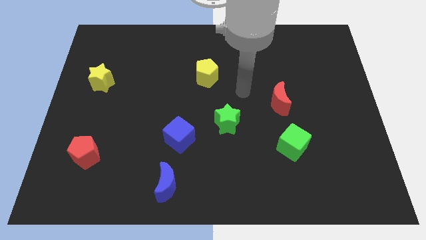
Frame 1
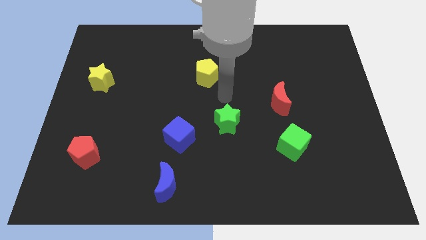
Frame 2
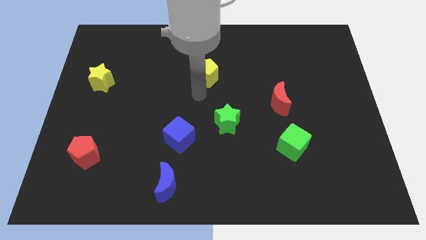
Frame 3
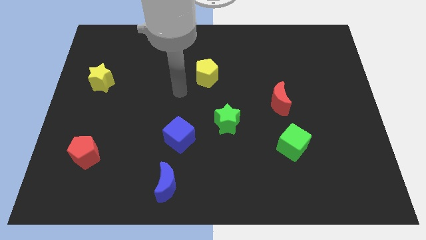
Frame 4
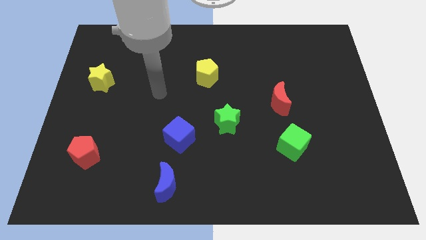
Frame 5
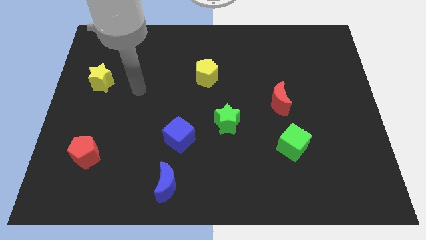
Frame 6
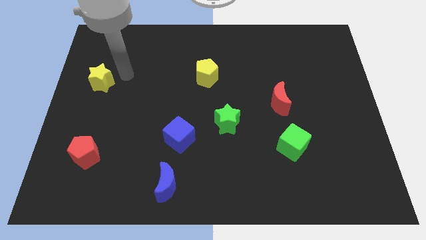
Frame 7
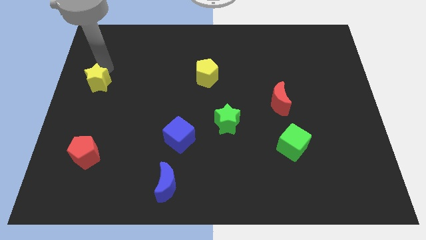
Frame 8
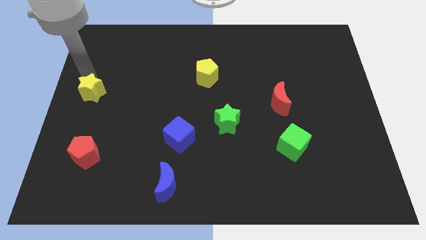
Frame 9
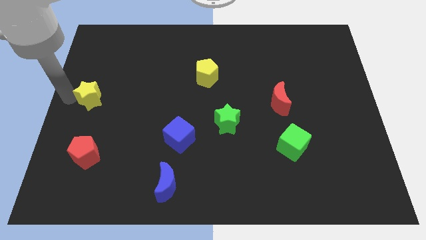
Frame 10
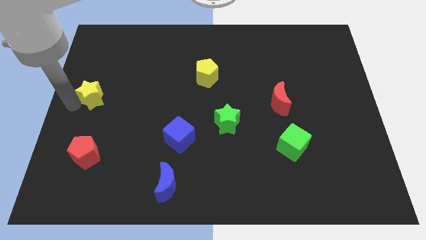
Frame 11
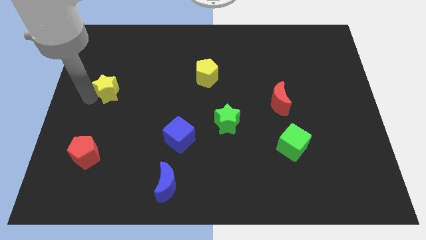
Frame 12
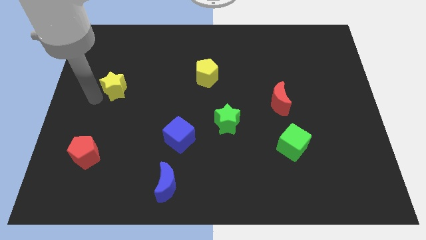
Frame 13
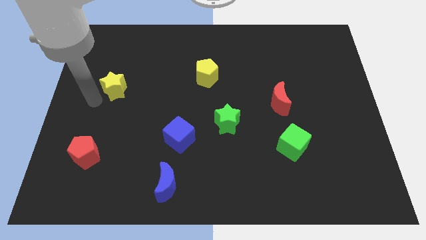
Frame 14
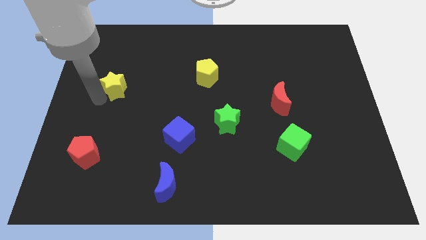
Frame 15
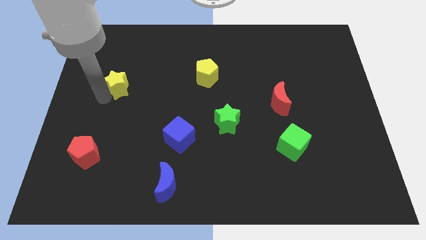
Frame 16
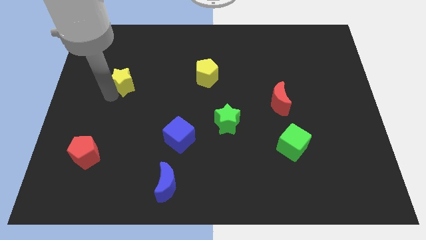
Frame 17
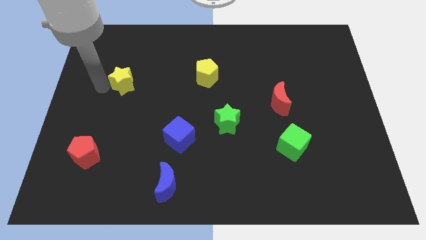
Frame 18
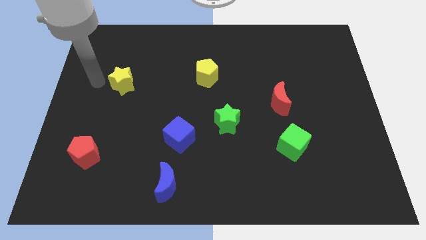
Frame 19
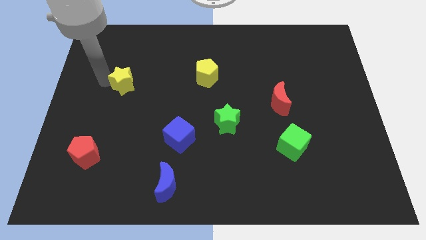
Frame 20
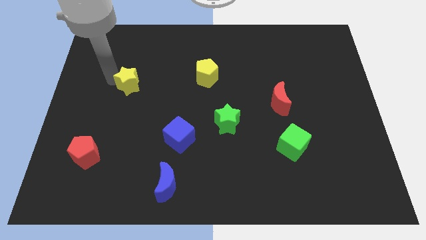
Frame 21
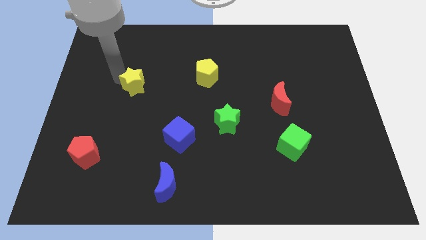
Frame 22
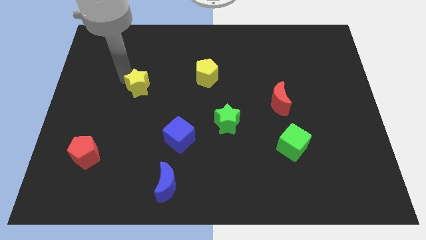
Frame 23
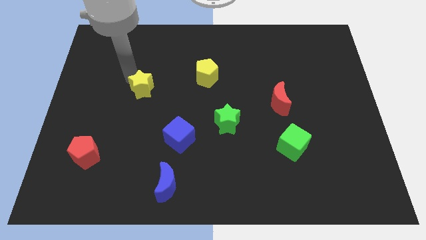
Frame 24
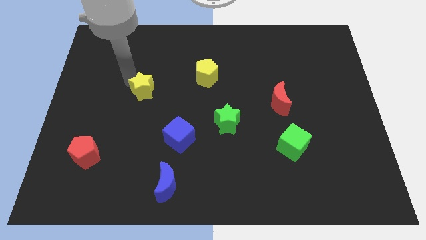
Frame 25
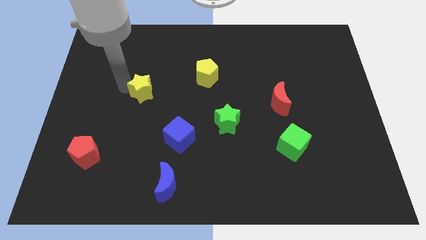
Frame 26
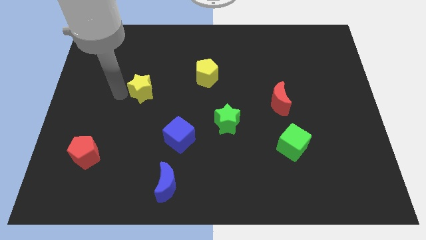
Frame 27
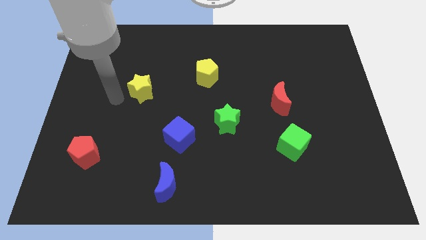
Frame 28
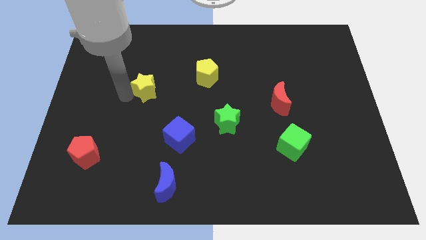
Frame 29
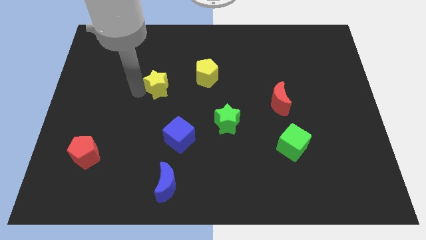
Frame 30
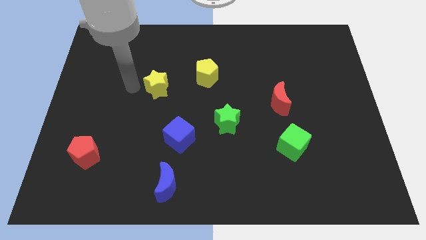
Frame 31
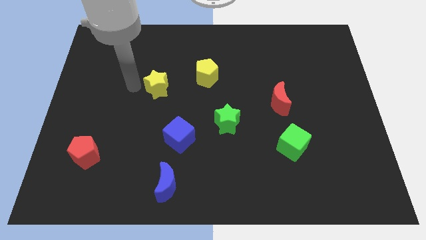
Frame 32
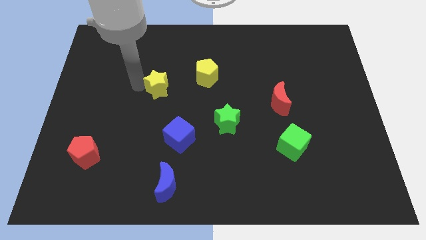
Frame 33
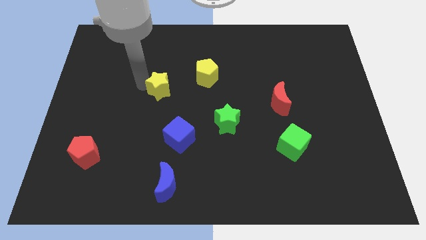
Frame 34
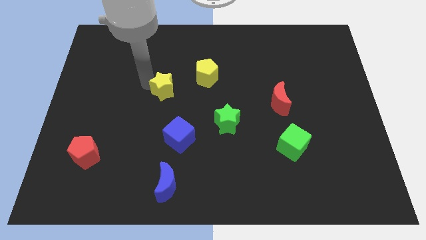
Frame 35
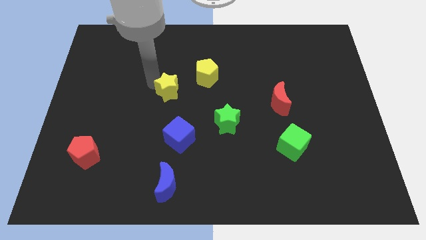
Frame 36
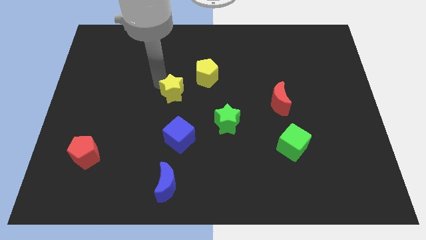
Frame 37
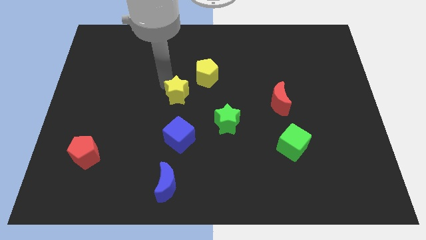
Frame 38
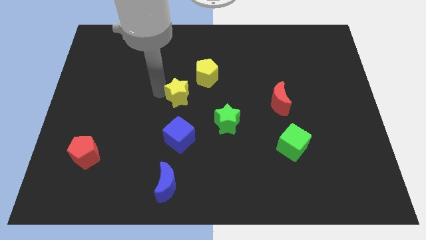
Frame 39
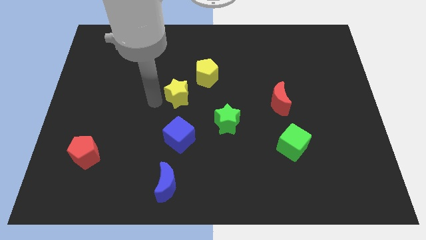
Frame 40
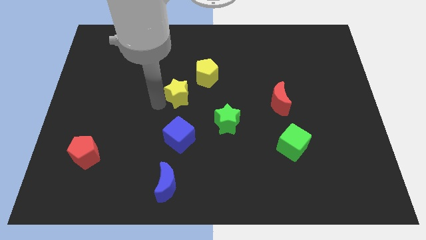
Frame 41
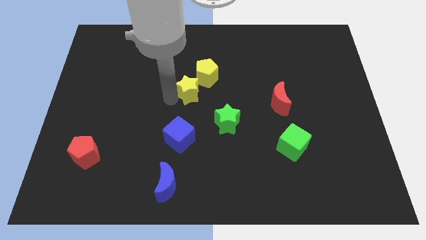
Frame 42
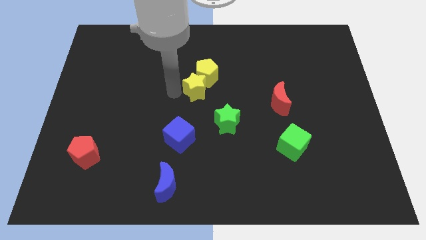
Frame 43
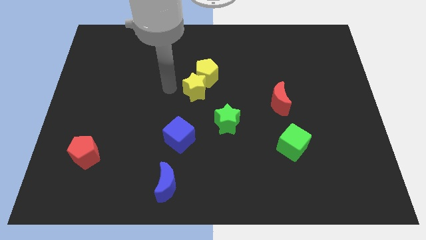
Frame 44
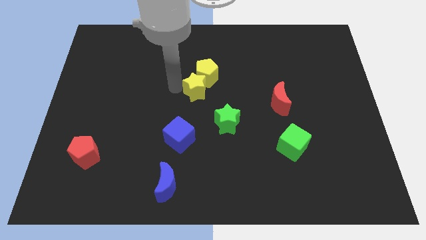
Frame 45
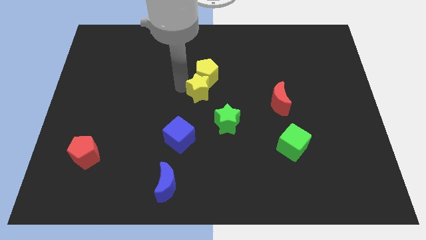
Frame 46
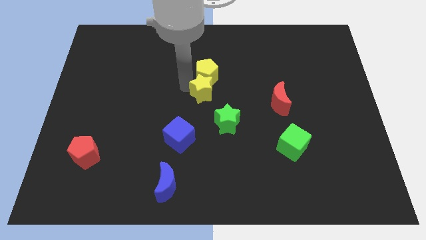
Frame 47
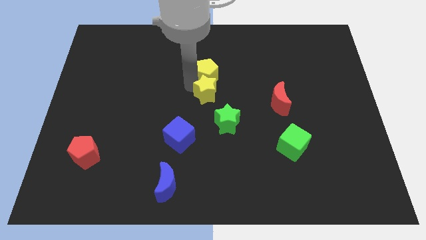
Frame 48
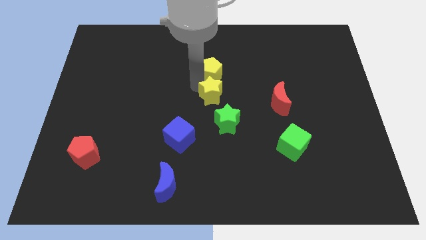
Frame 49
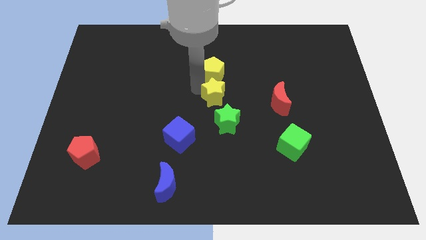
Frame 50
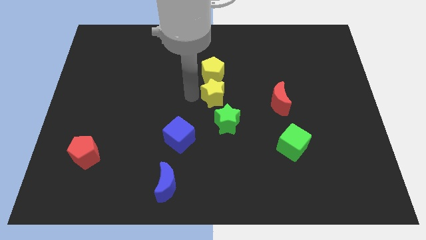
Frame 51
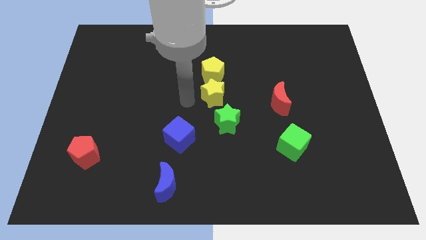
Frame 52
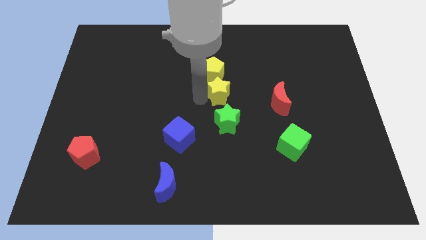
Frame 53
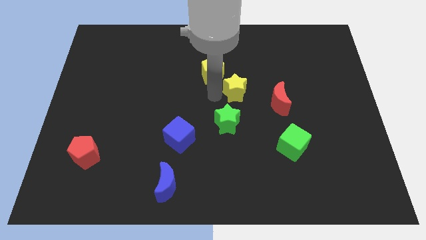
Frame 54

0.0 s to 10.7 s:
put the yellow star diagonally up and to the left of the red moon

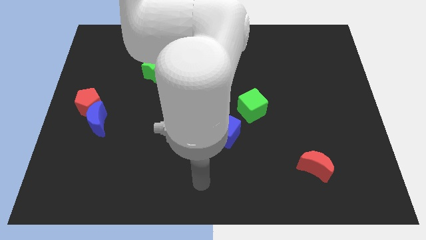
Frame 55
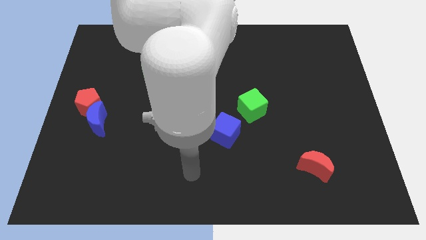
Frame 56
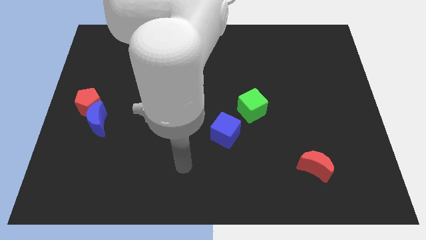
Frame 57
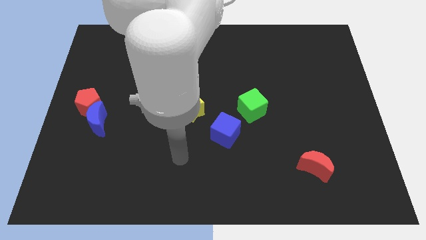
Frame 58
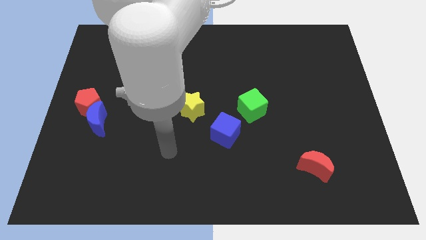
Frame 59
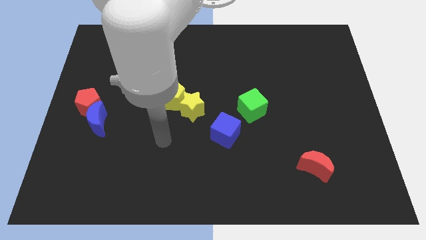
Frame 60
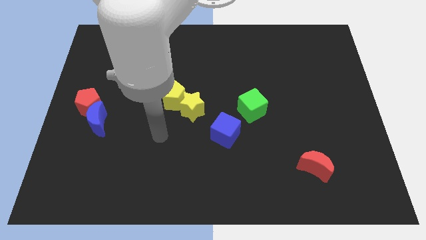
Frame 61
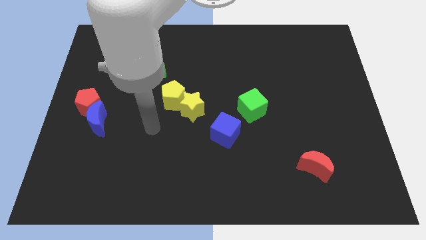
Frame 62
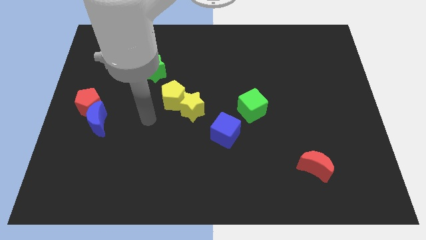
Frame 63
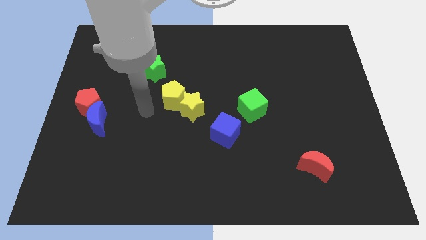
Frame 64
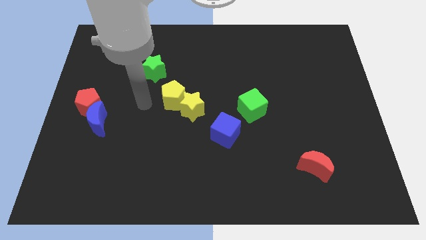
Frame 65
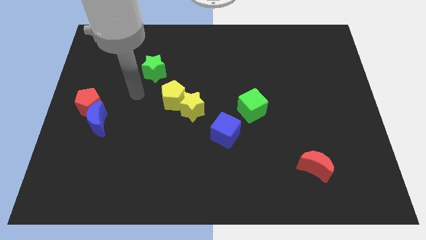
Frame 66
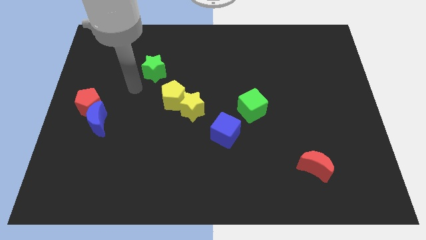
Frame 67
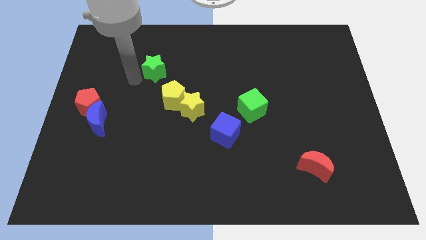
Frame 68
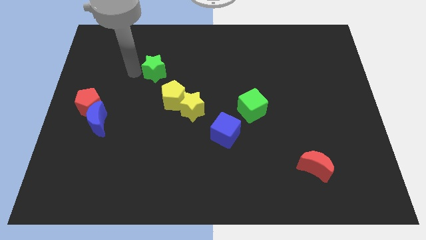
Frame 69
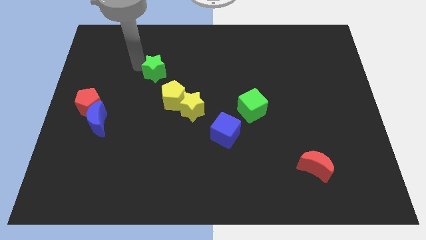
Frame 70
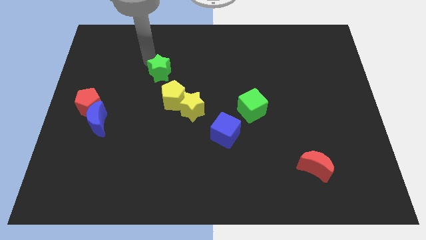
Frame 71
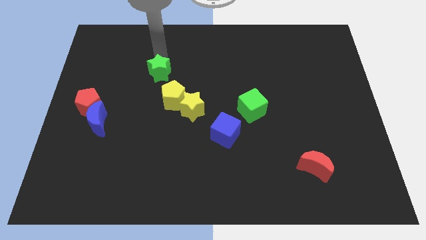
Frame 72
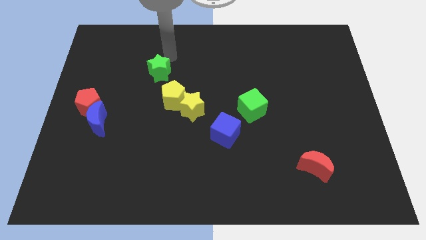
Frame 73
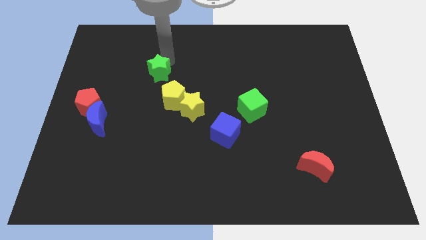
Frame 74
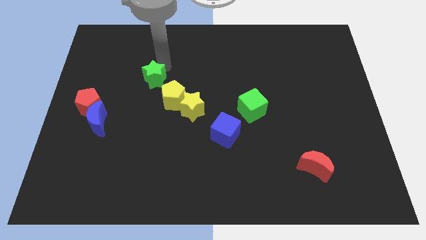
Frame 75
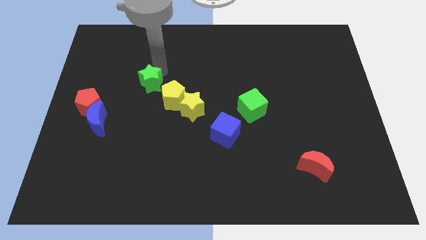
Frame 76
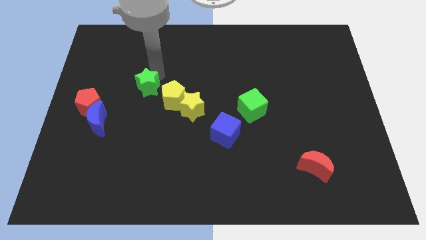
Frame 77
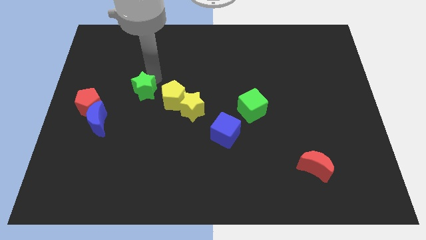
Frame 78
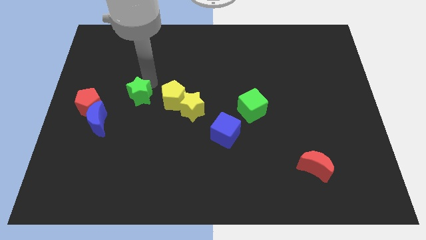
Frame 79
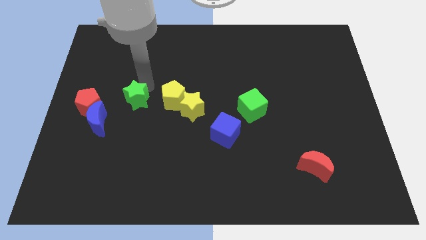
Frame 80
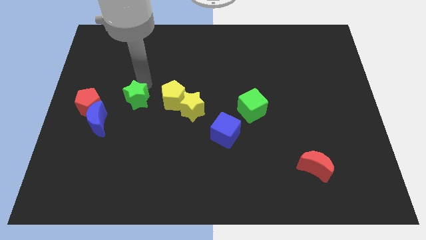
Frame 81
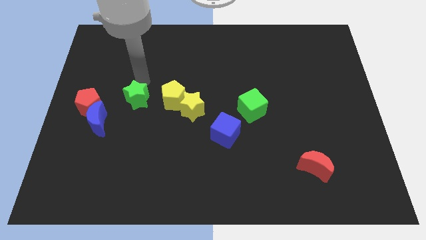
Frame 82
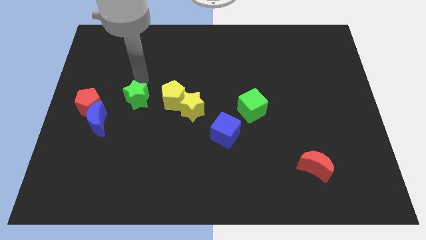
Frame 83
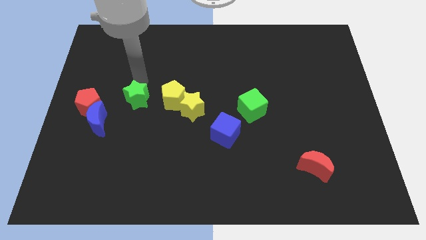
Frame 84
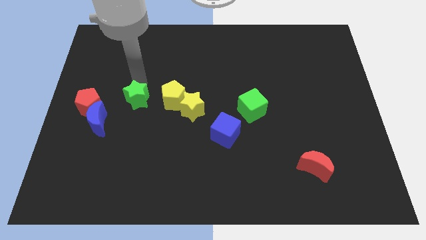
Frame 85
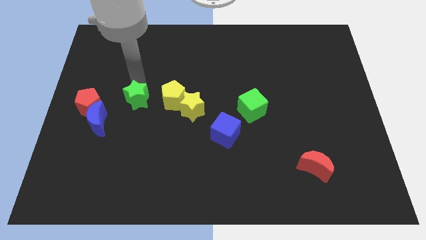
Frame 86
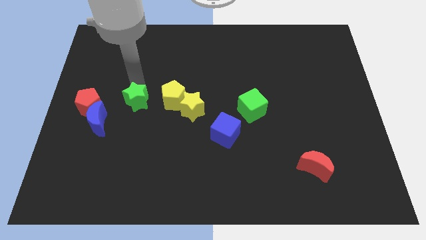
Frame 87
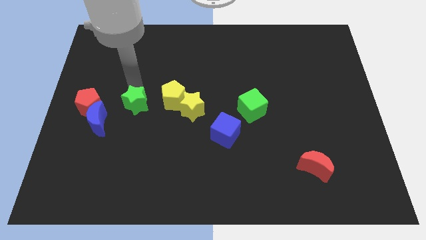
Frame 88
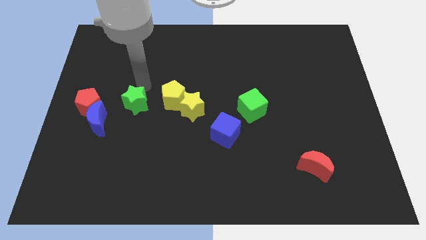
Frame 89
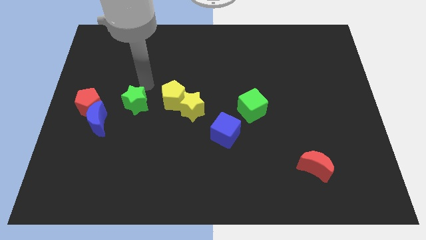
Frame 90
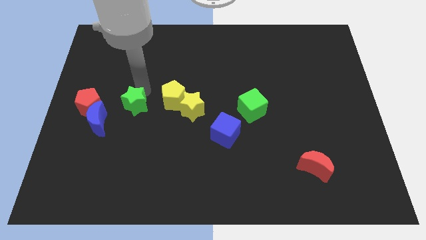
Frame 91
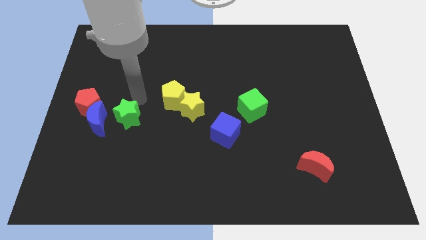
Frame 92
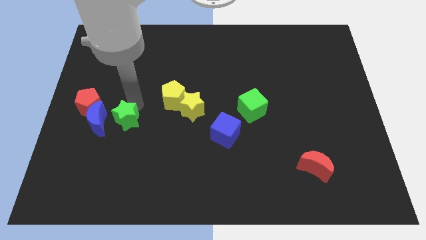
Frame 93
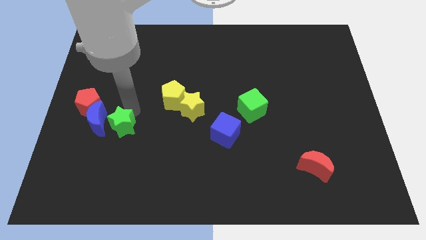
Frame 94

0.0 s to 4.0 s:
put the green star to the bottom right side of the blue moon
